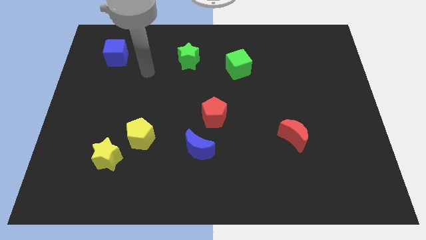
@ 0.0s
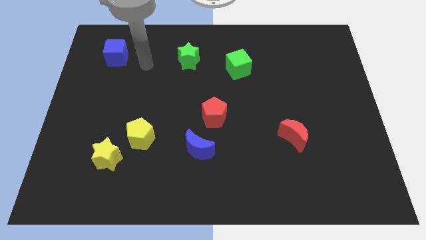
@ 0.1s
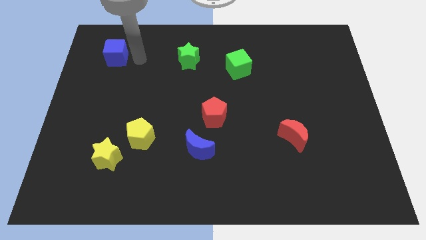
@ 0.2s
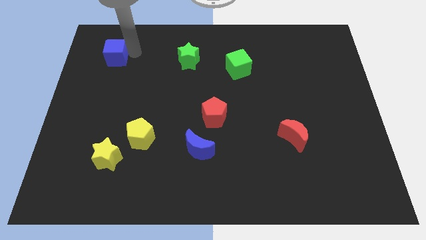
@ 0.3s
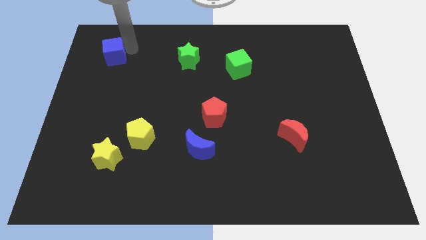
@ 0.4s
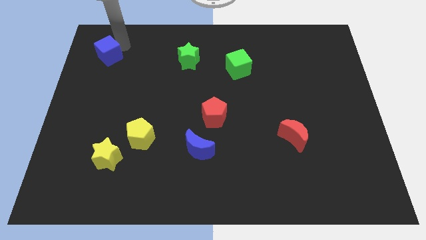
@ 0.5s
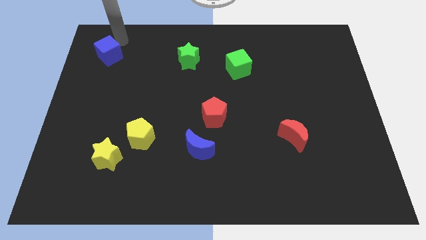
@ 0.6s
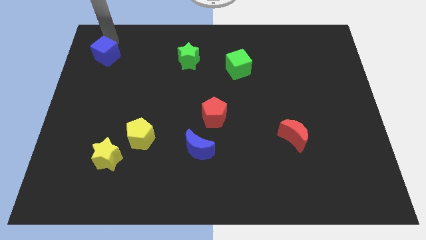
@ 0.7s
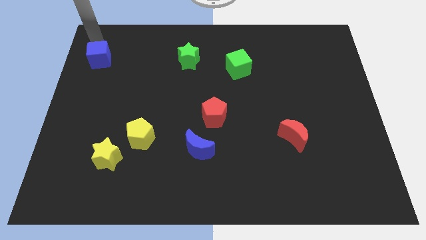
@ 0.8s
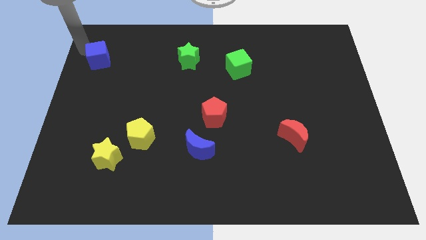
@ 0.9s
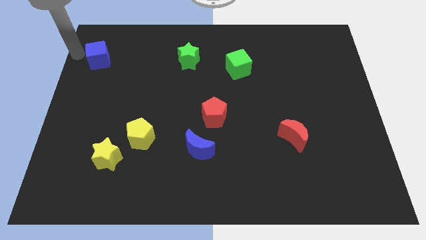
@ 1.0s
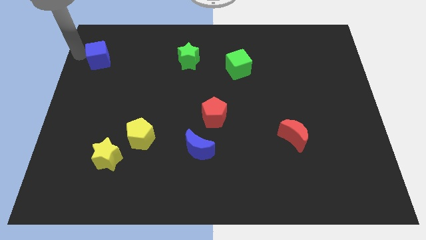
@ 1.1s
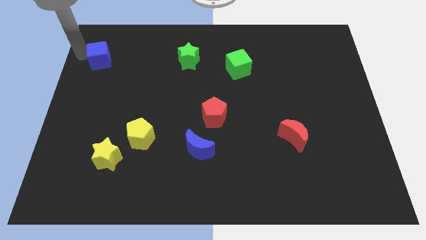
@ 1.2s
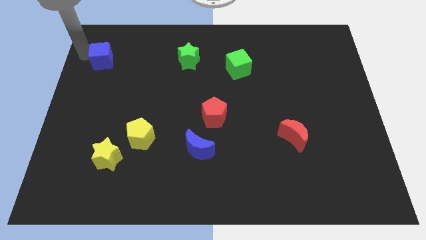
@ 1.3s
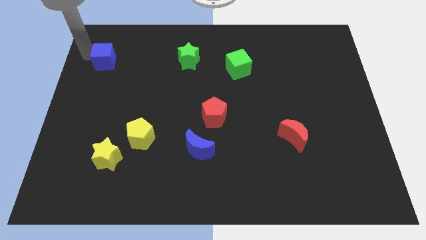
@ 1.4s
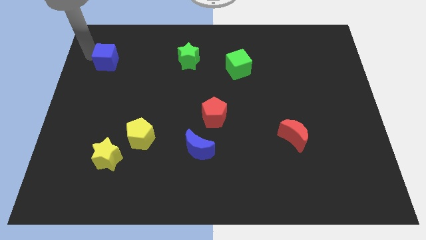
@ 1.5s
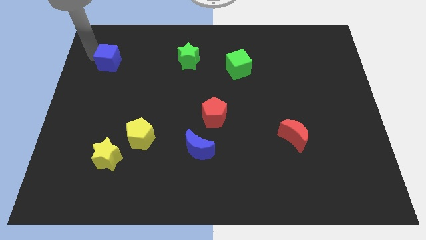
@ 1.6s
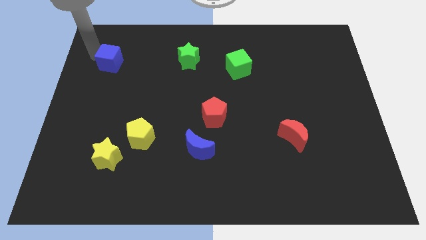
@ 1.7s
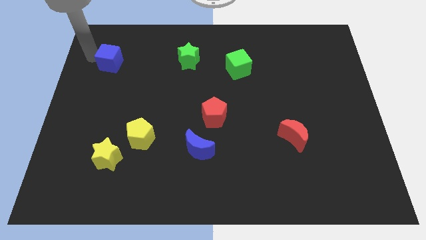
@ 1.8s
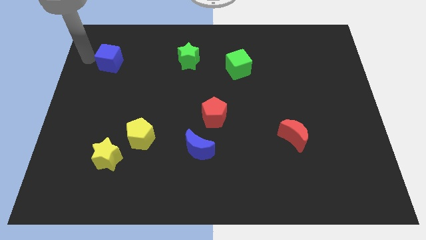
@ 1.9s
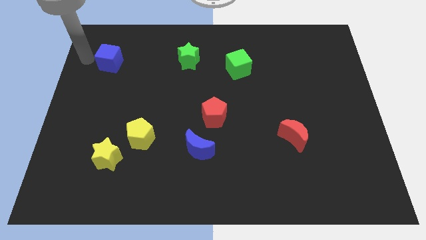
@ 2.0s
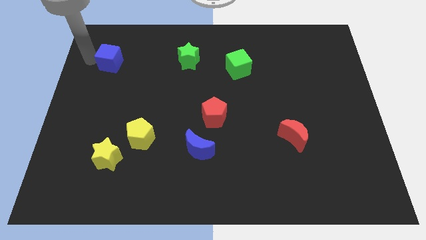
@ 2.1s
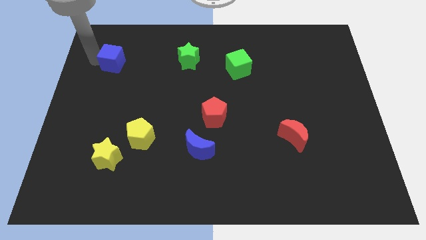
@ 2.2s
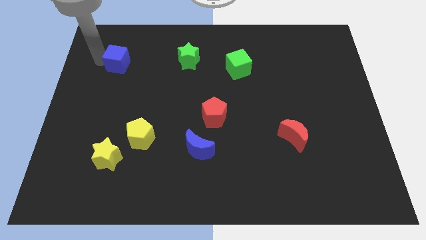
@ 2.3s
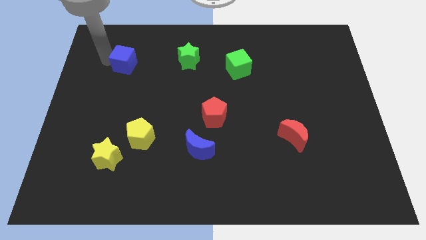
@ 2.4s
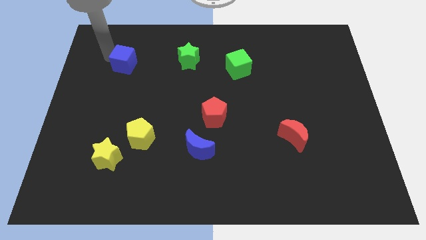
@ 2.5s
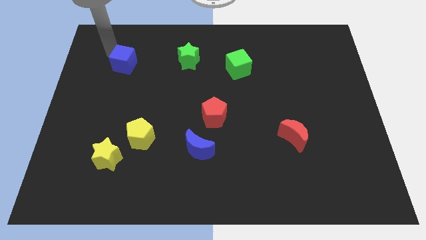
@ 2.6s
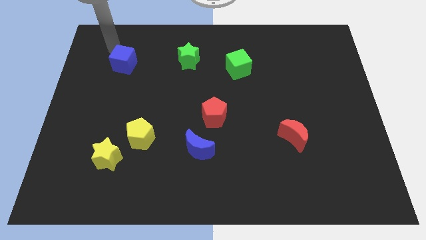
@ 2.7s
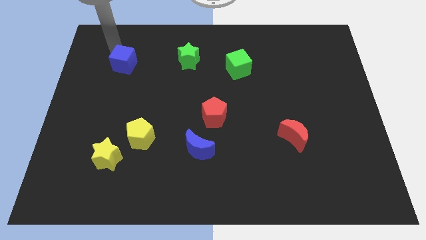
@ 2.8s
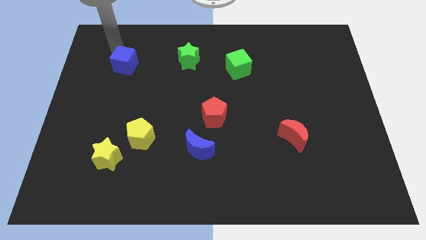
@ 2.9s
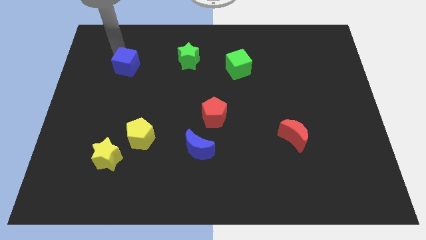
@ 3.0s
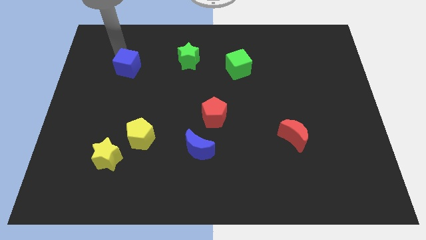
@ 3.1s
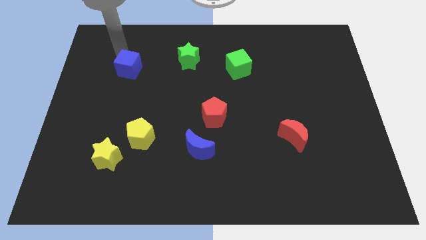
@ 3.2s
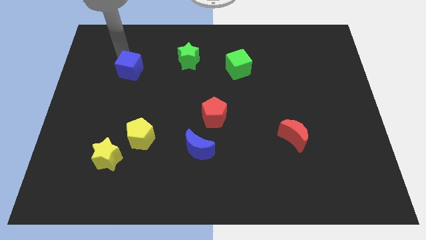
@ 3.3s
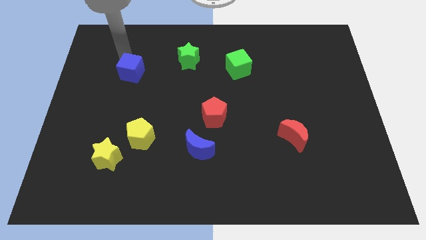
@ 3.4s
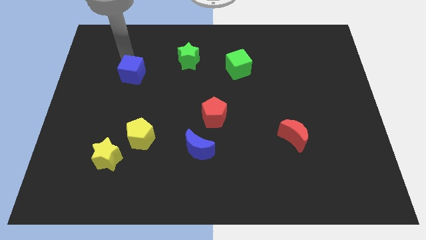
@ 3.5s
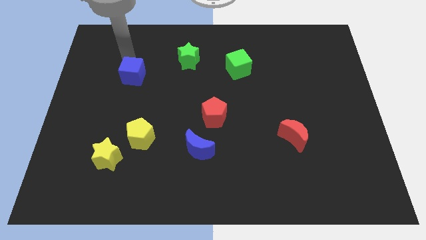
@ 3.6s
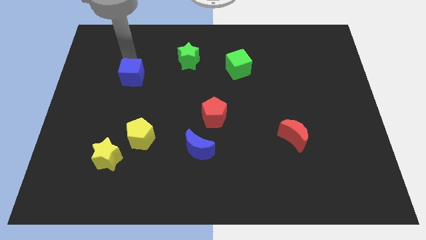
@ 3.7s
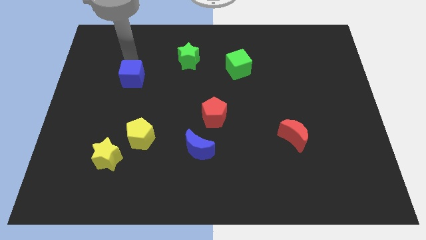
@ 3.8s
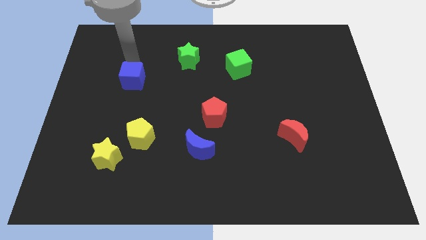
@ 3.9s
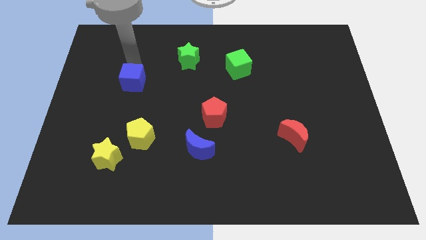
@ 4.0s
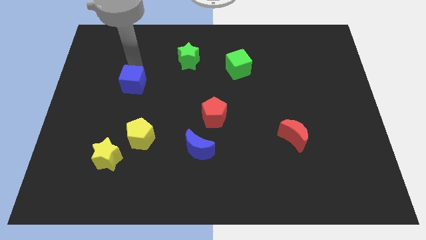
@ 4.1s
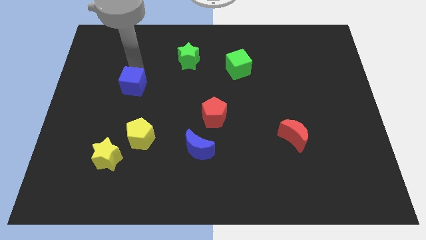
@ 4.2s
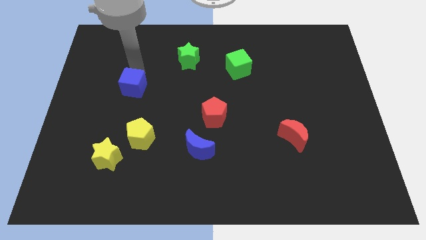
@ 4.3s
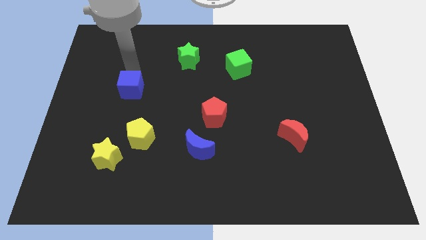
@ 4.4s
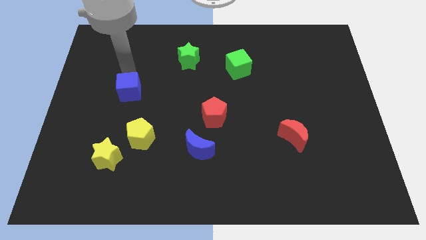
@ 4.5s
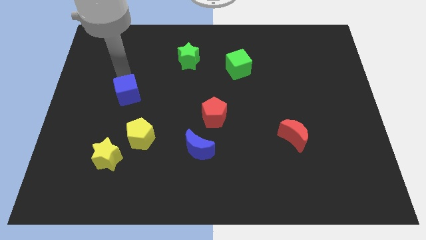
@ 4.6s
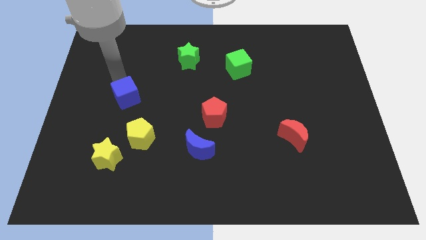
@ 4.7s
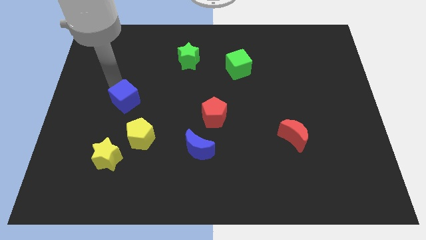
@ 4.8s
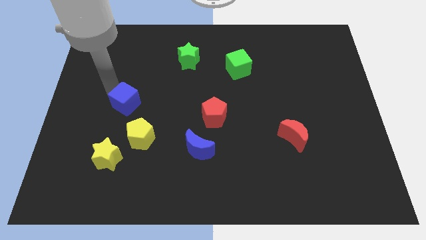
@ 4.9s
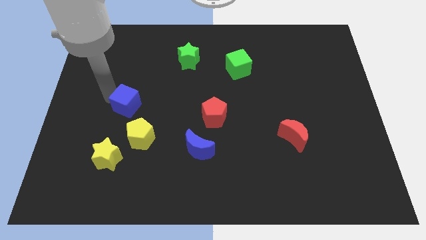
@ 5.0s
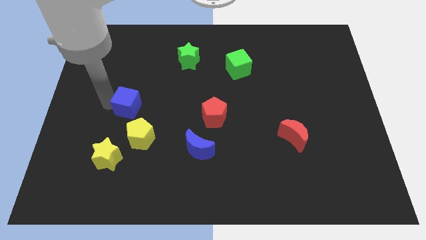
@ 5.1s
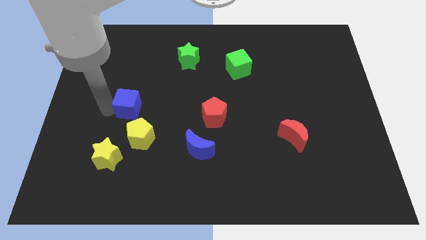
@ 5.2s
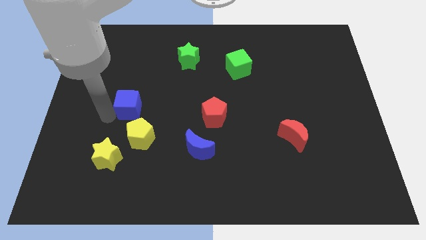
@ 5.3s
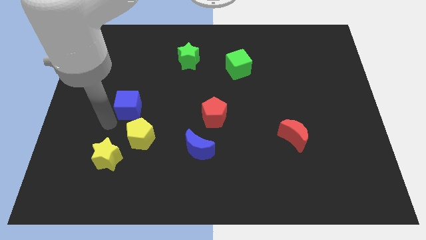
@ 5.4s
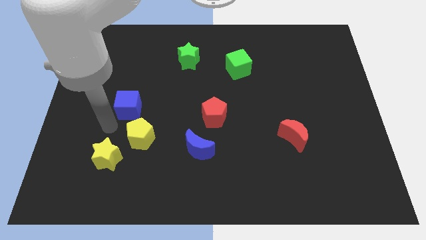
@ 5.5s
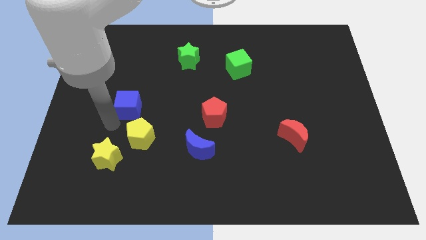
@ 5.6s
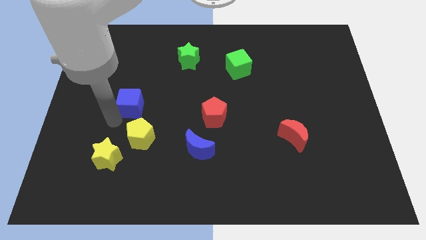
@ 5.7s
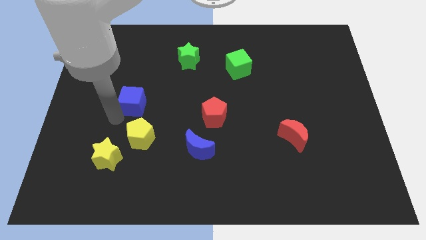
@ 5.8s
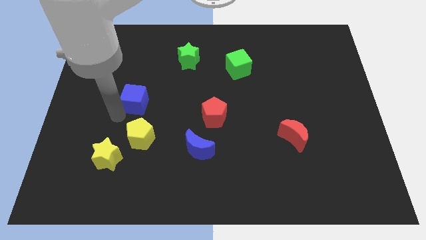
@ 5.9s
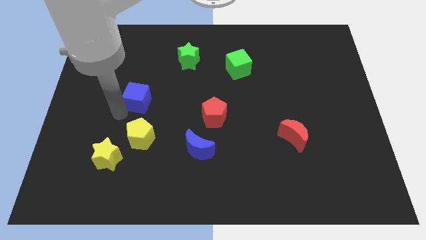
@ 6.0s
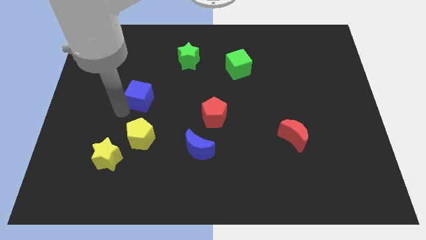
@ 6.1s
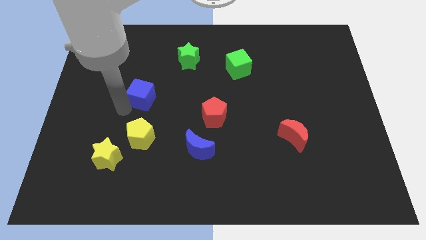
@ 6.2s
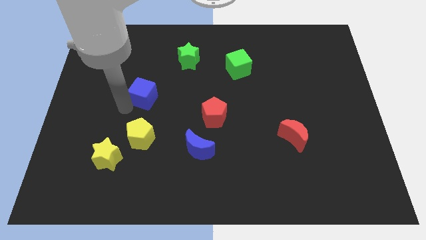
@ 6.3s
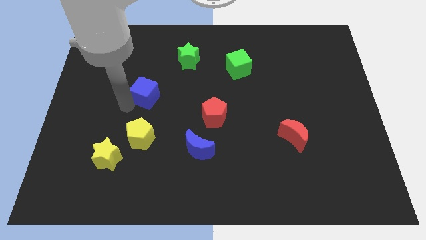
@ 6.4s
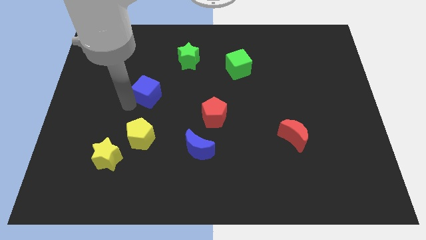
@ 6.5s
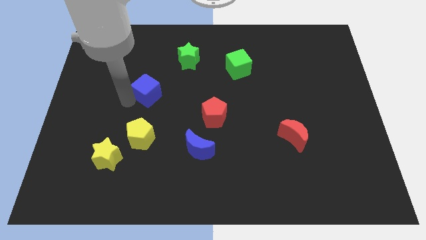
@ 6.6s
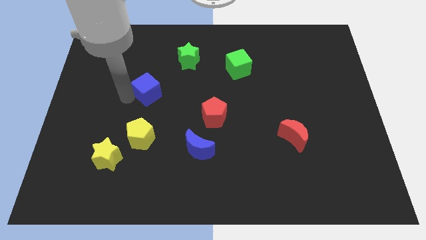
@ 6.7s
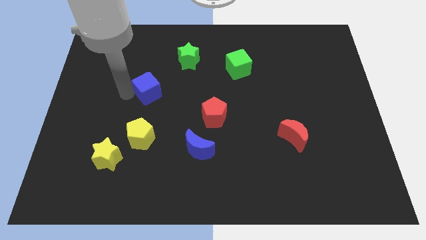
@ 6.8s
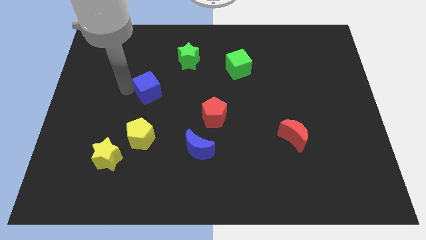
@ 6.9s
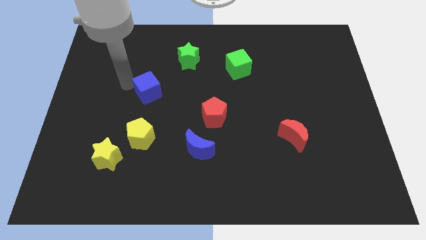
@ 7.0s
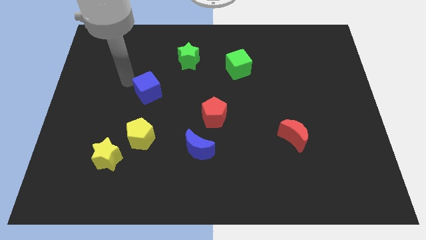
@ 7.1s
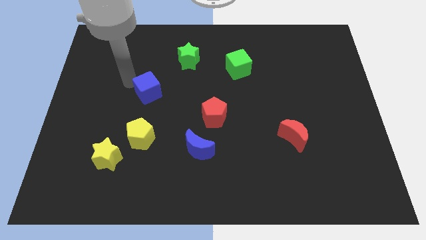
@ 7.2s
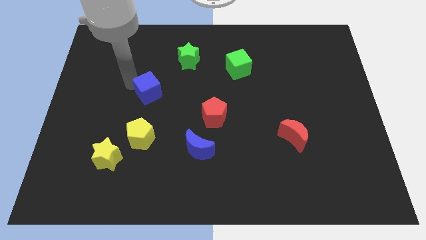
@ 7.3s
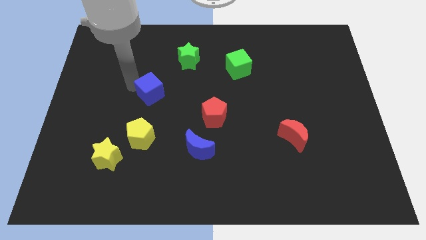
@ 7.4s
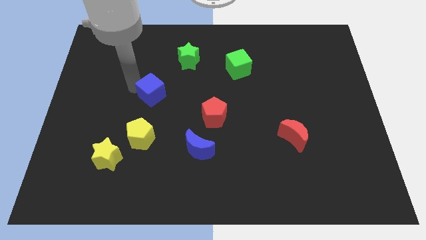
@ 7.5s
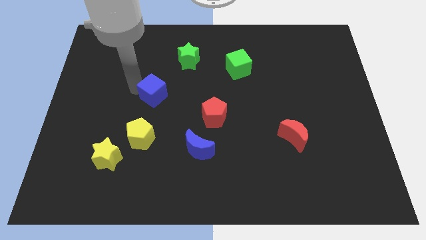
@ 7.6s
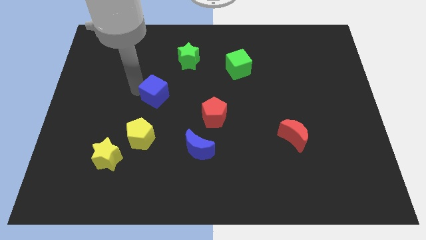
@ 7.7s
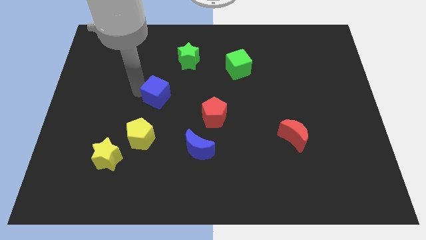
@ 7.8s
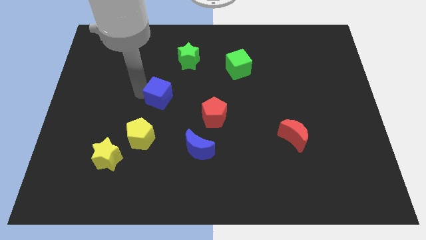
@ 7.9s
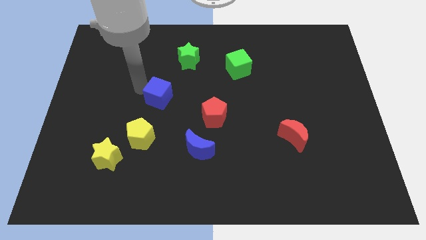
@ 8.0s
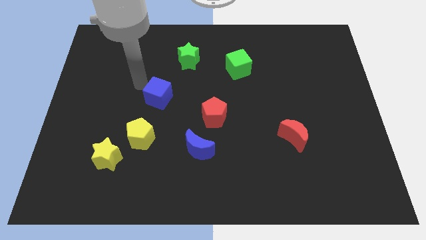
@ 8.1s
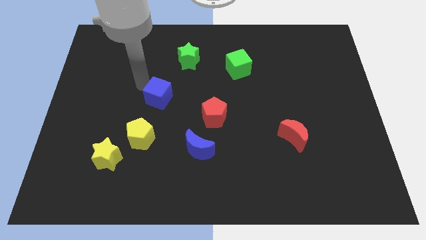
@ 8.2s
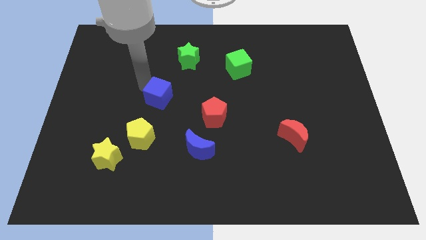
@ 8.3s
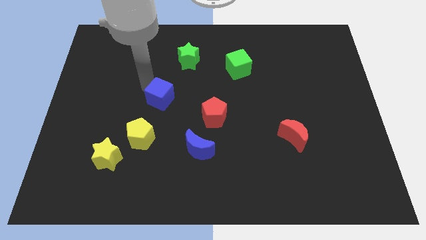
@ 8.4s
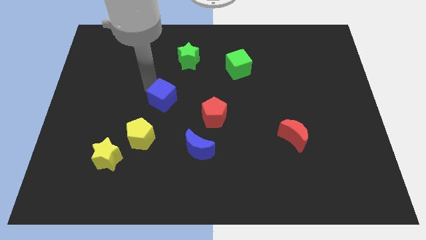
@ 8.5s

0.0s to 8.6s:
slide the blue cube down and to the right diagonally

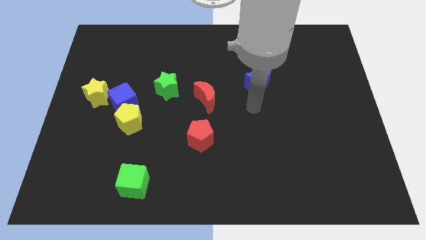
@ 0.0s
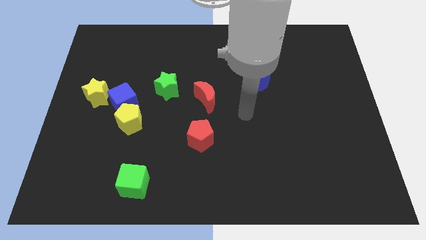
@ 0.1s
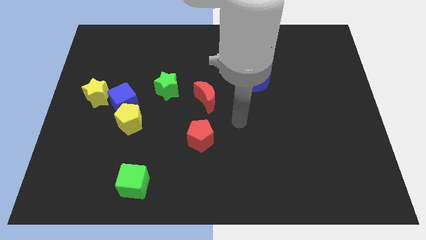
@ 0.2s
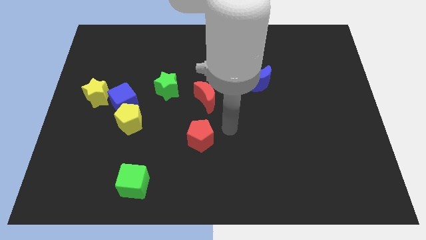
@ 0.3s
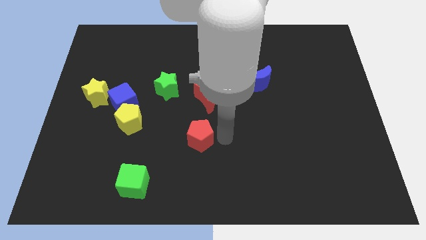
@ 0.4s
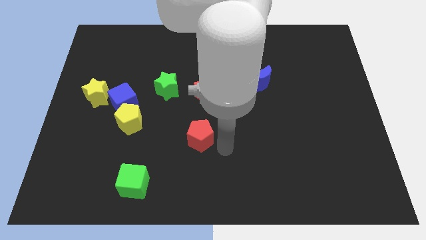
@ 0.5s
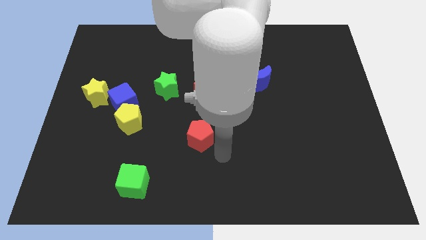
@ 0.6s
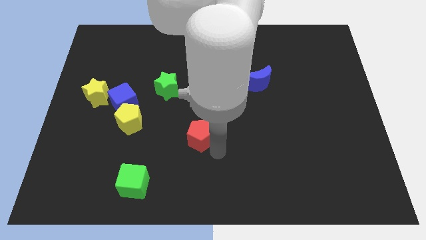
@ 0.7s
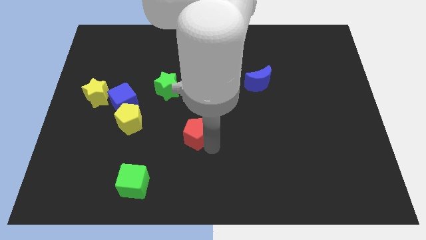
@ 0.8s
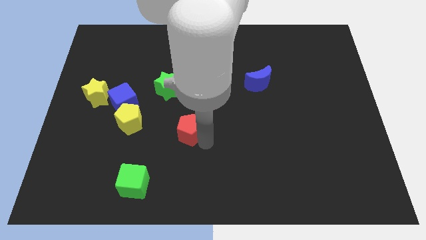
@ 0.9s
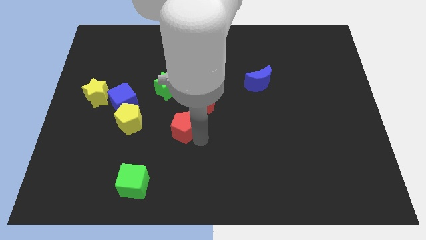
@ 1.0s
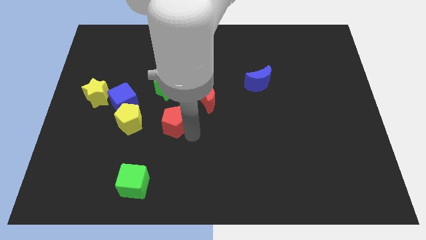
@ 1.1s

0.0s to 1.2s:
slide the red pentagon diagonally up and to the left a little
